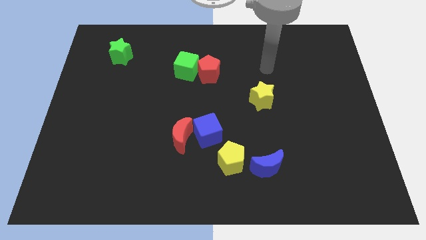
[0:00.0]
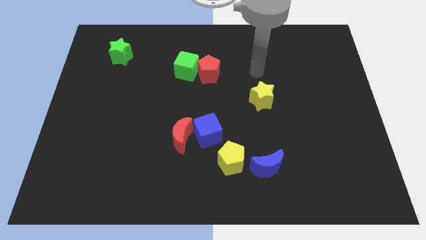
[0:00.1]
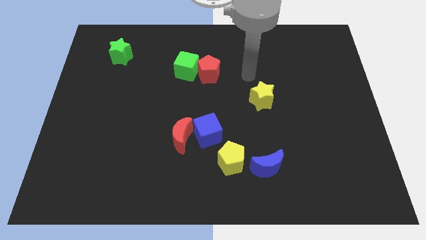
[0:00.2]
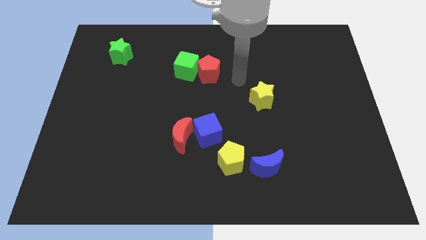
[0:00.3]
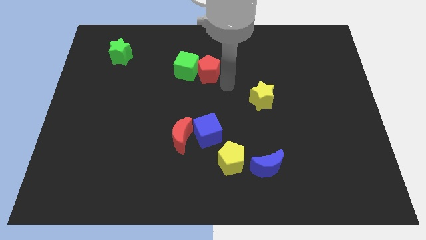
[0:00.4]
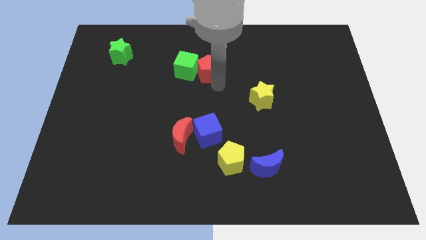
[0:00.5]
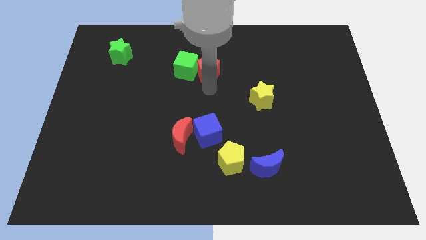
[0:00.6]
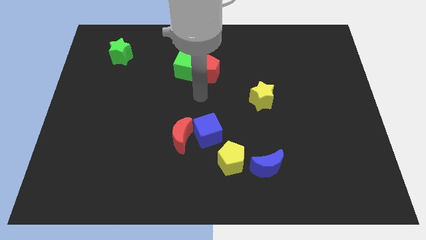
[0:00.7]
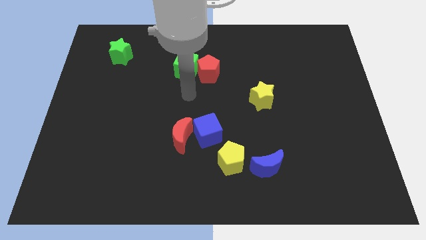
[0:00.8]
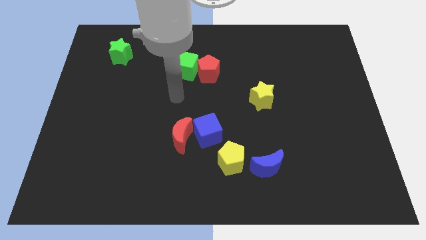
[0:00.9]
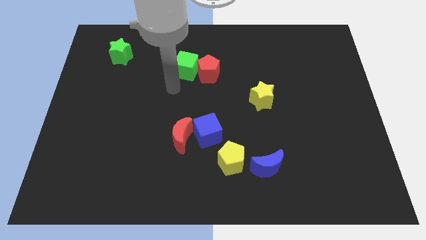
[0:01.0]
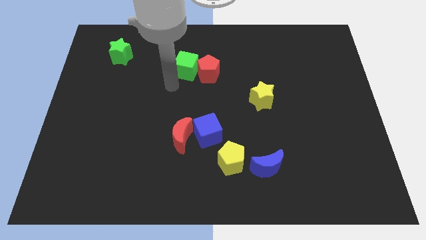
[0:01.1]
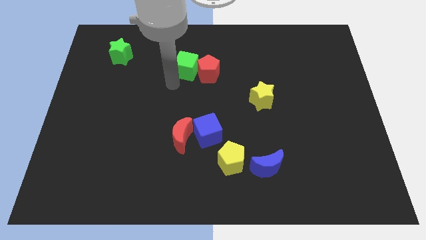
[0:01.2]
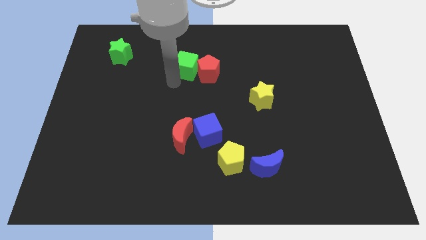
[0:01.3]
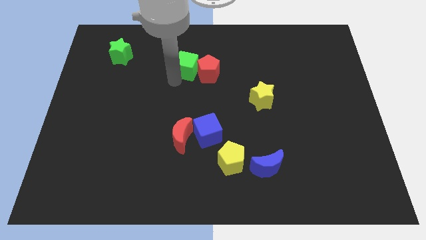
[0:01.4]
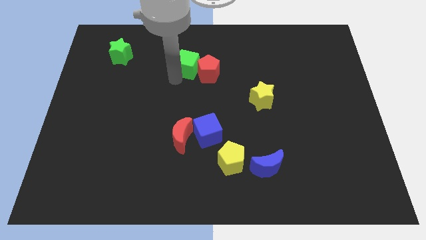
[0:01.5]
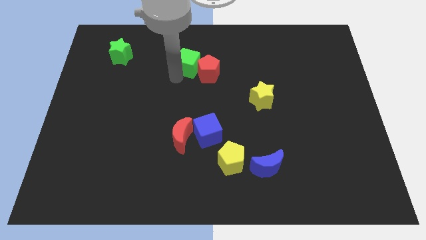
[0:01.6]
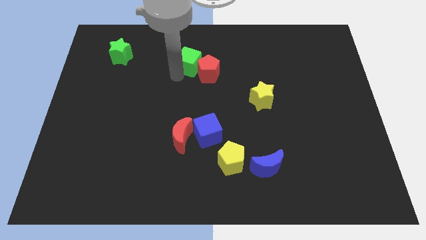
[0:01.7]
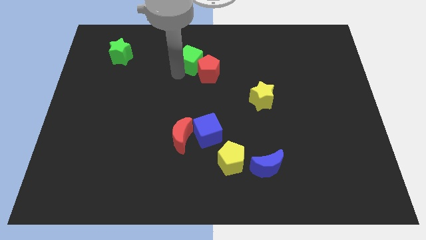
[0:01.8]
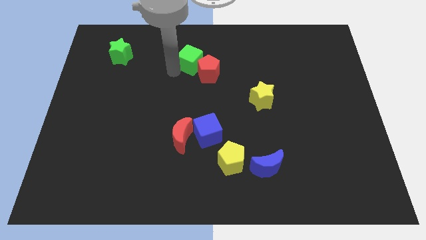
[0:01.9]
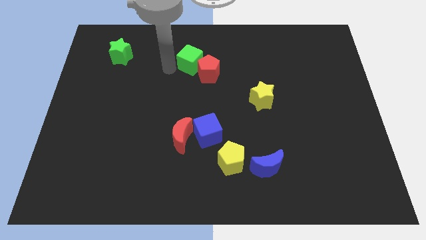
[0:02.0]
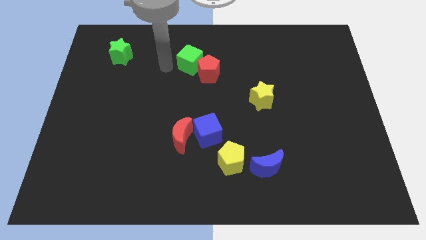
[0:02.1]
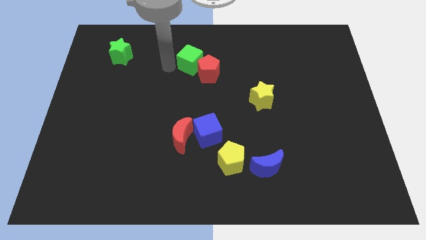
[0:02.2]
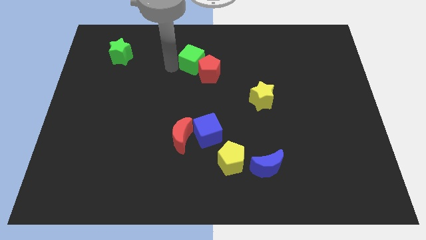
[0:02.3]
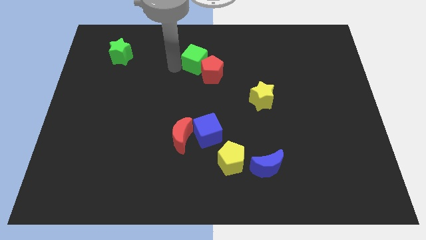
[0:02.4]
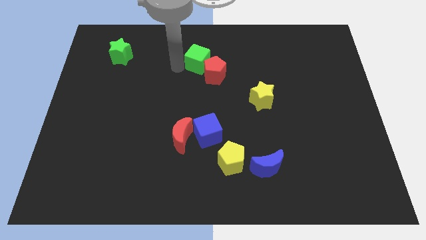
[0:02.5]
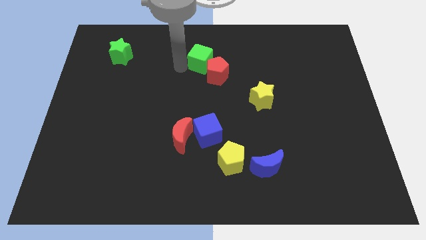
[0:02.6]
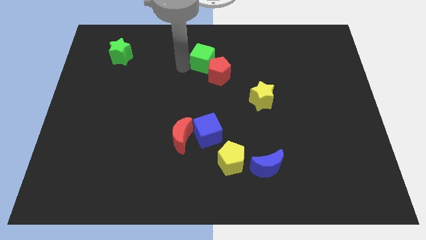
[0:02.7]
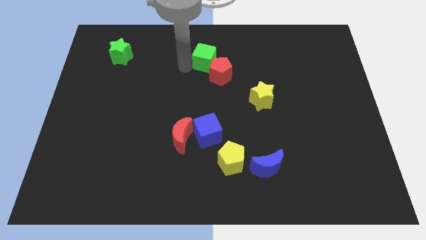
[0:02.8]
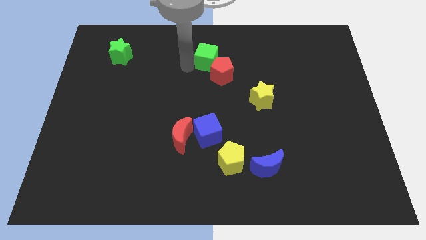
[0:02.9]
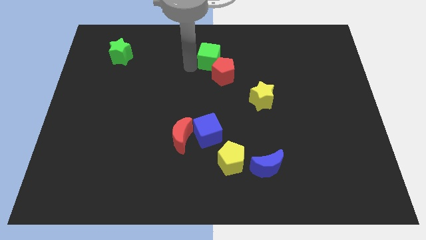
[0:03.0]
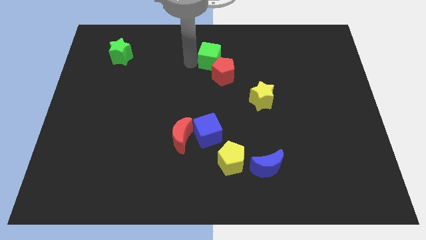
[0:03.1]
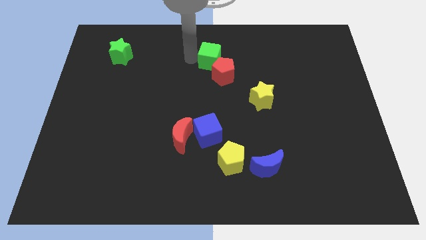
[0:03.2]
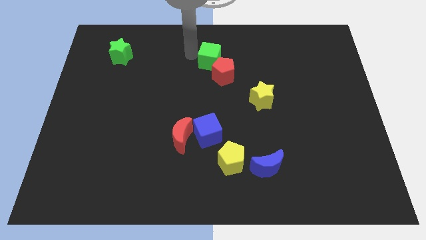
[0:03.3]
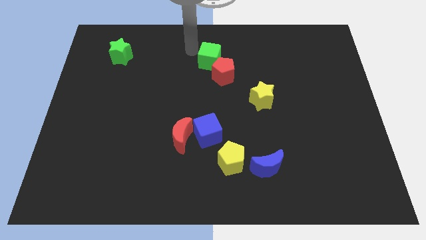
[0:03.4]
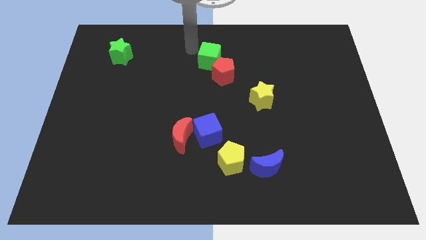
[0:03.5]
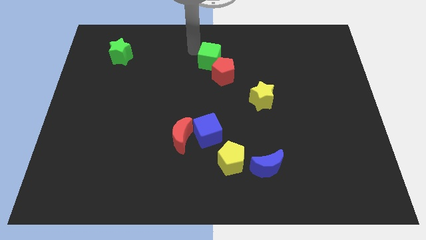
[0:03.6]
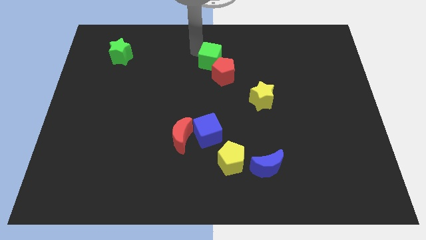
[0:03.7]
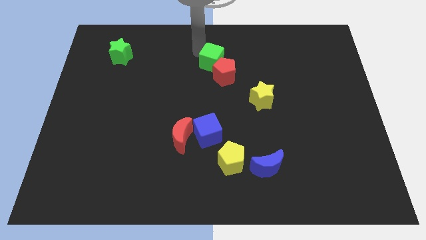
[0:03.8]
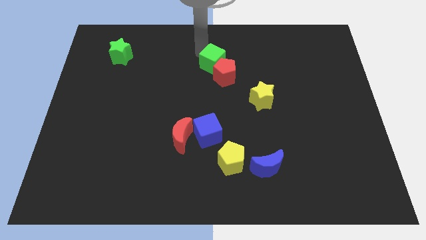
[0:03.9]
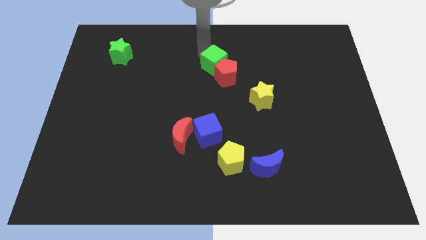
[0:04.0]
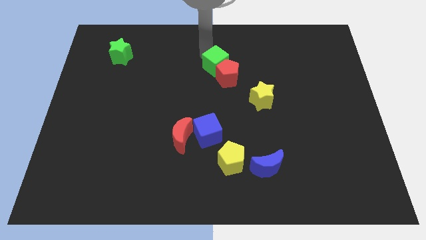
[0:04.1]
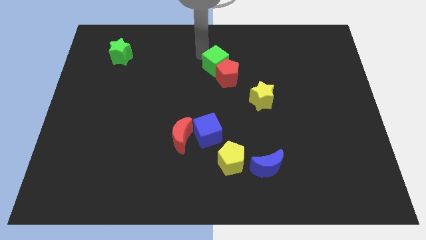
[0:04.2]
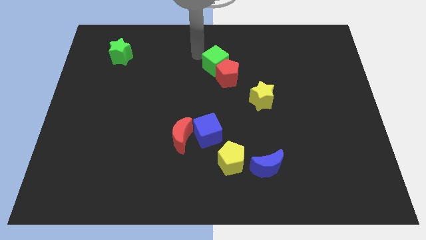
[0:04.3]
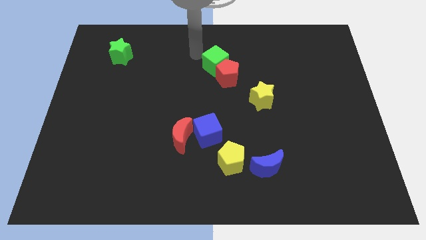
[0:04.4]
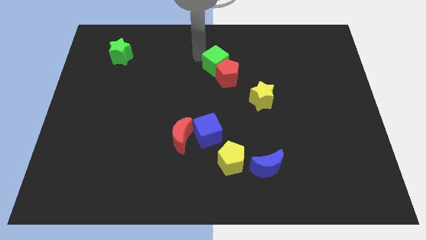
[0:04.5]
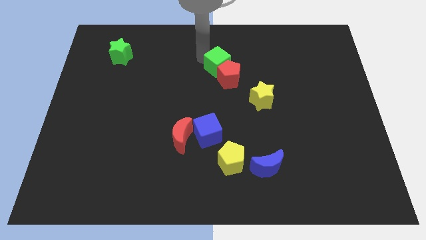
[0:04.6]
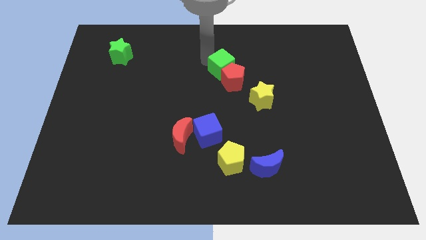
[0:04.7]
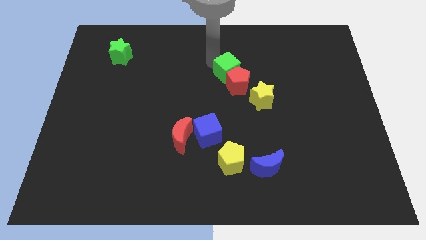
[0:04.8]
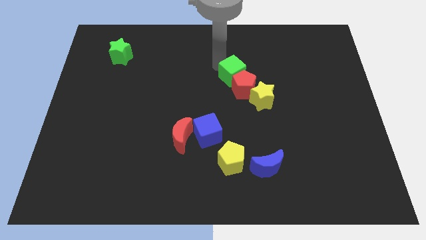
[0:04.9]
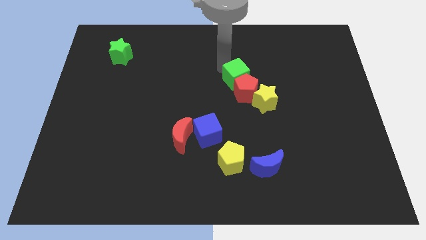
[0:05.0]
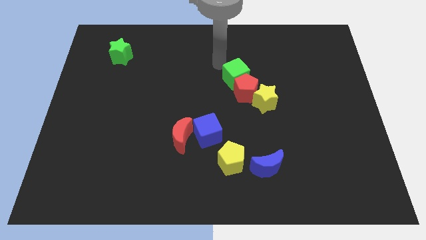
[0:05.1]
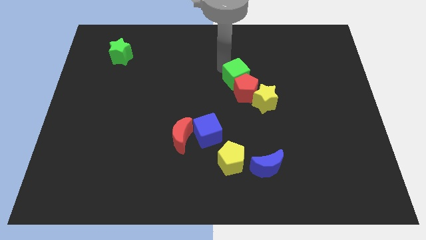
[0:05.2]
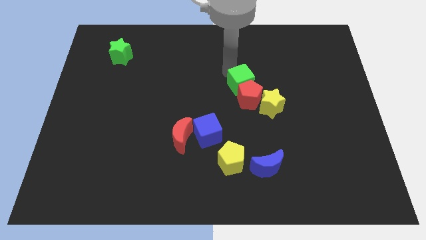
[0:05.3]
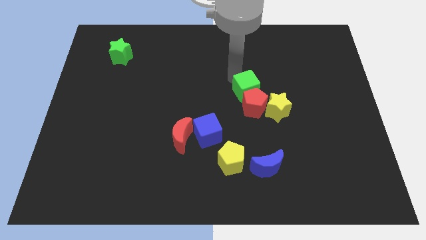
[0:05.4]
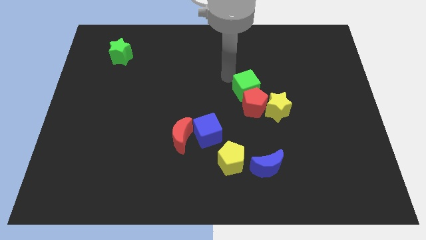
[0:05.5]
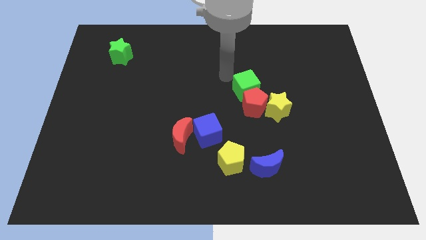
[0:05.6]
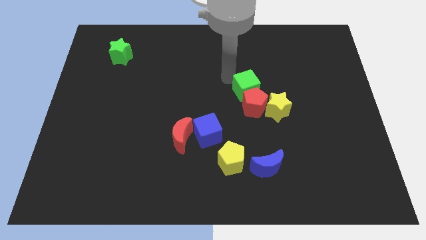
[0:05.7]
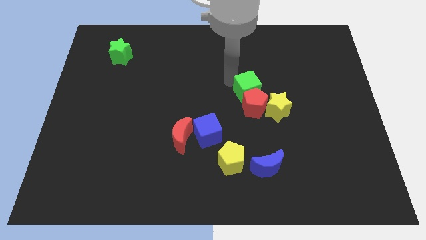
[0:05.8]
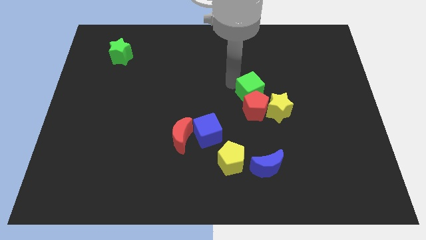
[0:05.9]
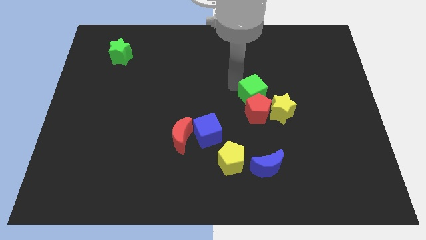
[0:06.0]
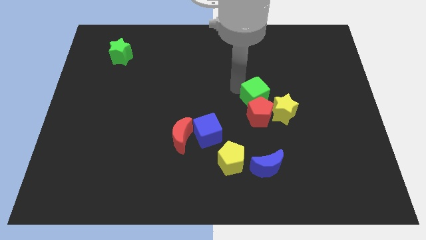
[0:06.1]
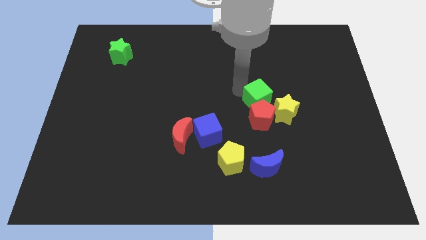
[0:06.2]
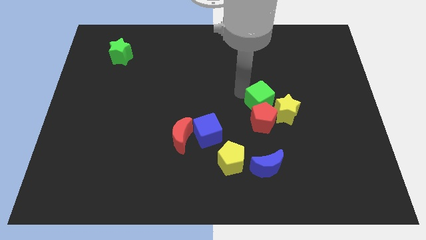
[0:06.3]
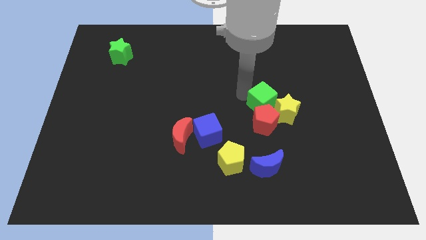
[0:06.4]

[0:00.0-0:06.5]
move the green cube to the yellow star

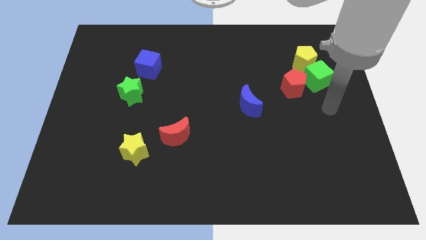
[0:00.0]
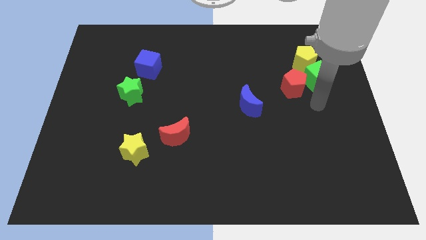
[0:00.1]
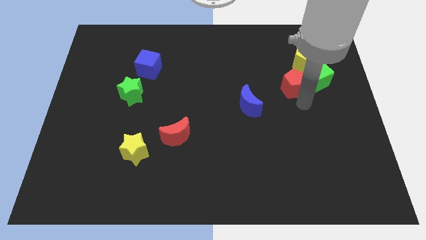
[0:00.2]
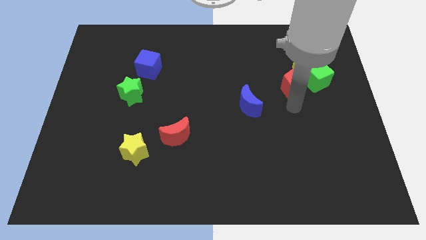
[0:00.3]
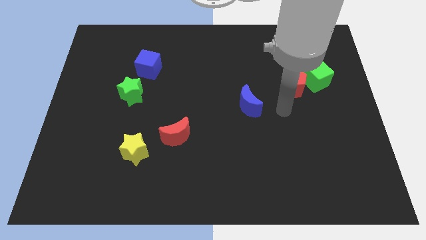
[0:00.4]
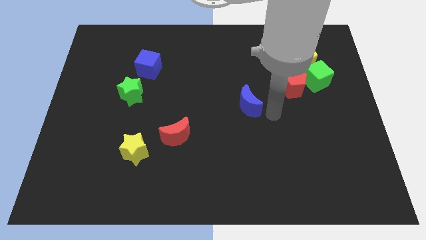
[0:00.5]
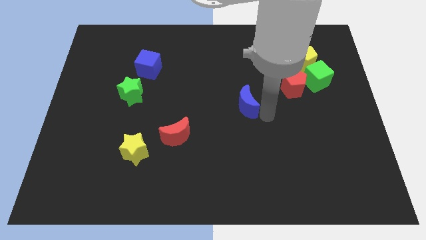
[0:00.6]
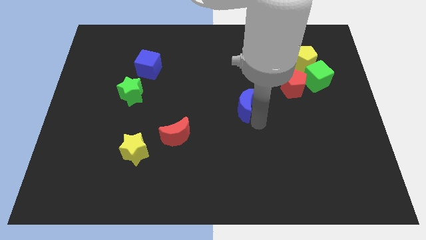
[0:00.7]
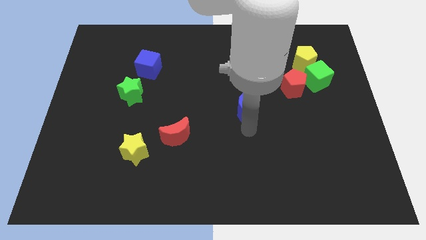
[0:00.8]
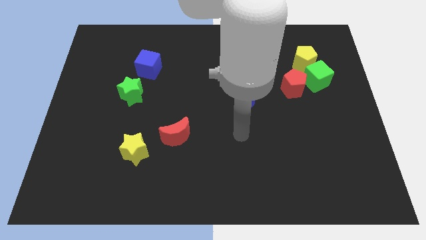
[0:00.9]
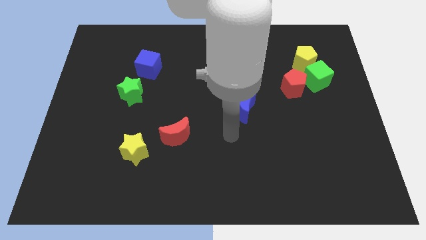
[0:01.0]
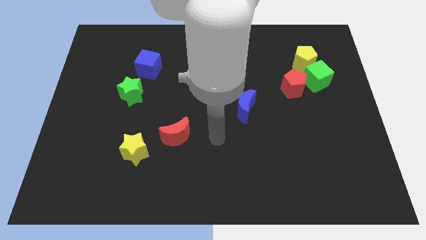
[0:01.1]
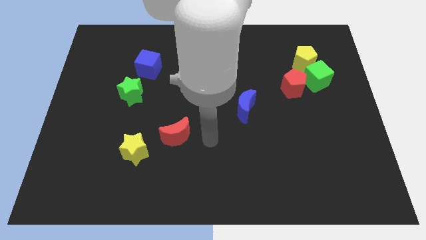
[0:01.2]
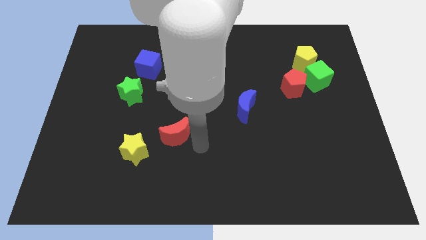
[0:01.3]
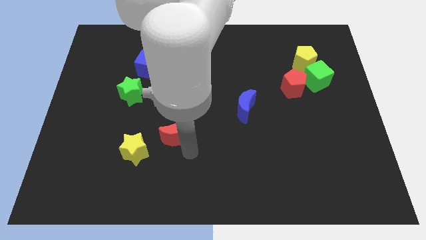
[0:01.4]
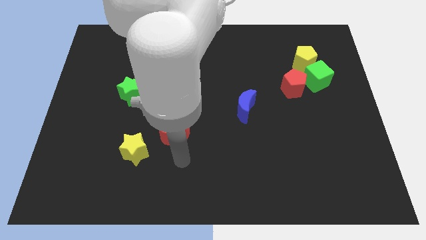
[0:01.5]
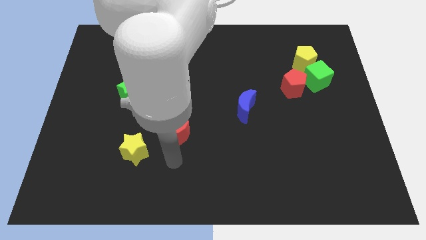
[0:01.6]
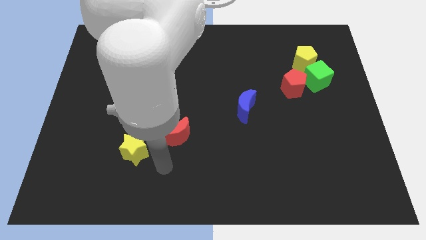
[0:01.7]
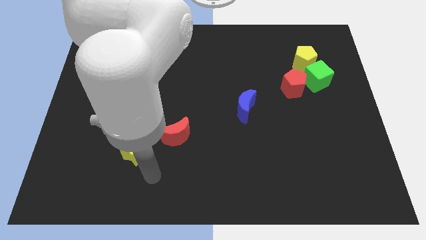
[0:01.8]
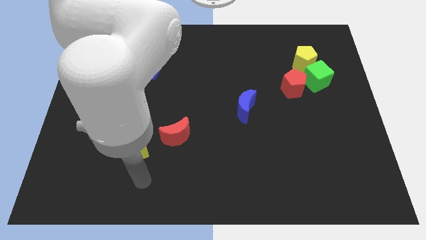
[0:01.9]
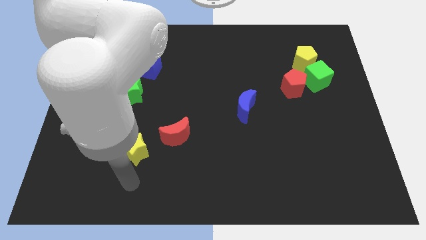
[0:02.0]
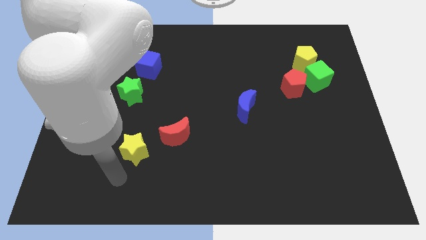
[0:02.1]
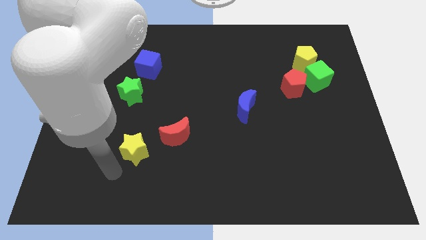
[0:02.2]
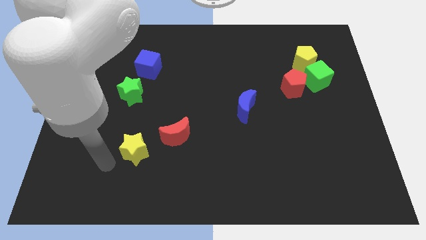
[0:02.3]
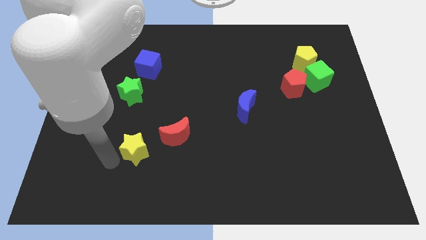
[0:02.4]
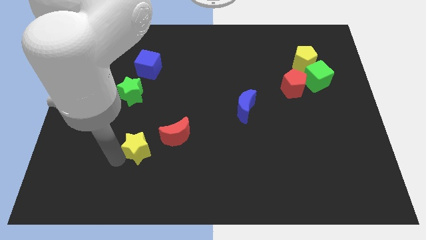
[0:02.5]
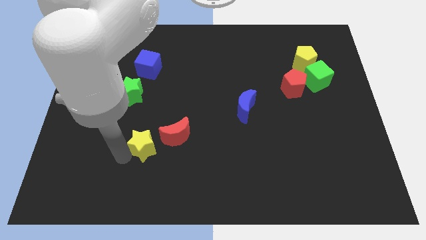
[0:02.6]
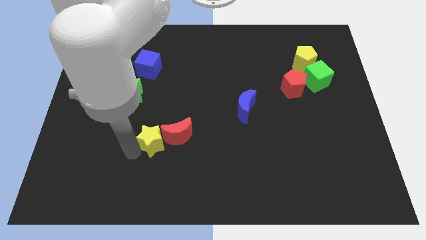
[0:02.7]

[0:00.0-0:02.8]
slide the yellow star to the red moon
